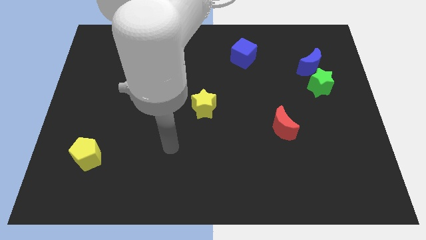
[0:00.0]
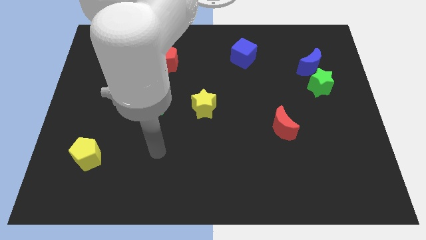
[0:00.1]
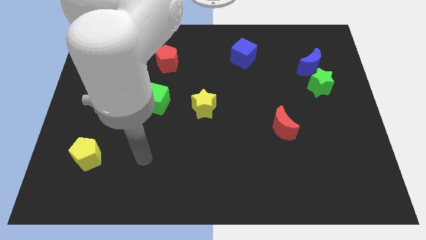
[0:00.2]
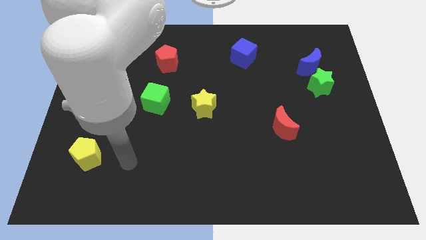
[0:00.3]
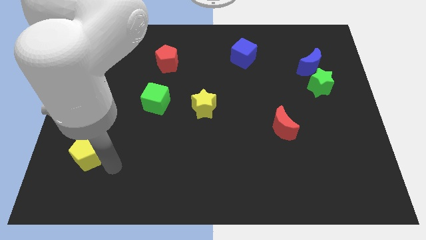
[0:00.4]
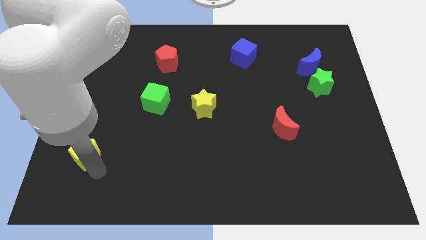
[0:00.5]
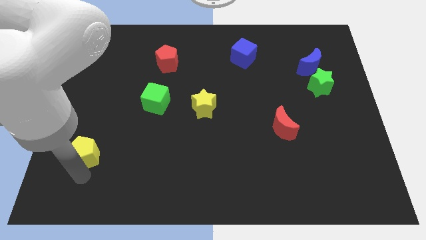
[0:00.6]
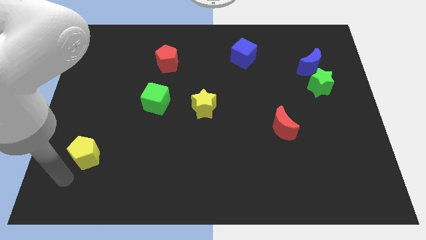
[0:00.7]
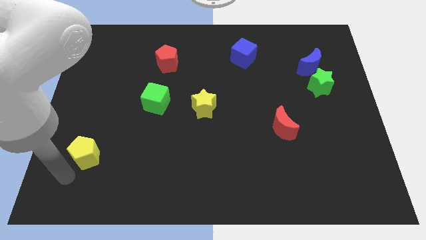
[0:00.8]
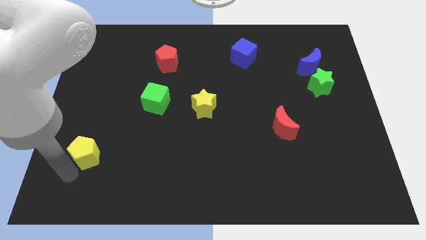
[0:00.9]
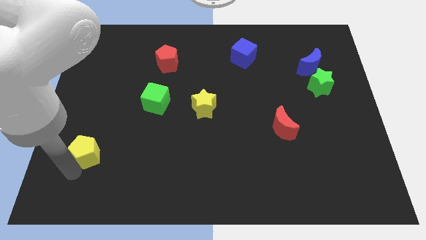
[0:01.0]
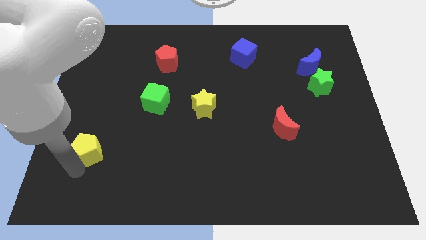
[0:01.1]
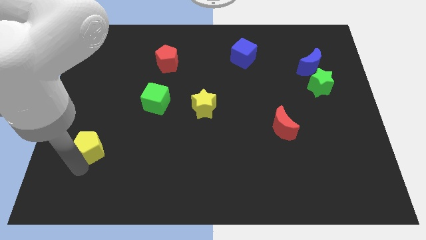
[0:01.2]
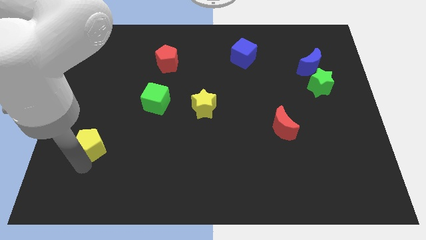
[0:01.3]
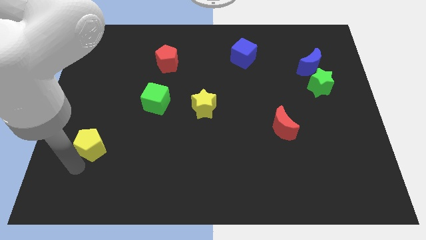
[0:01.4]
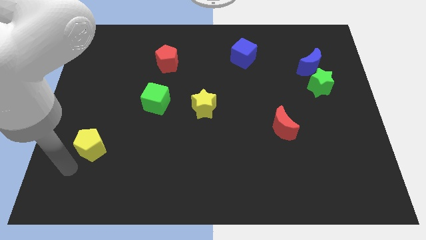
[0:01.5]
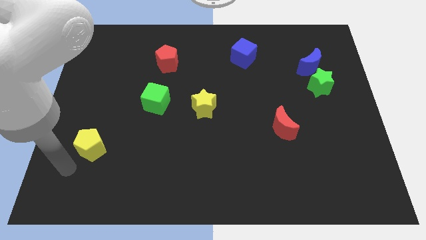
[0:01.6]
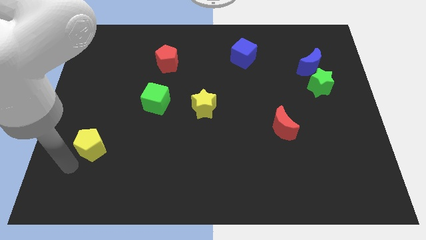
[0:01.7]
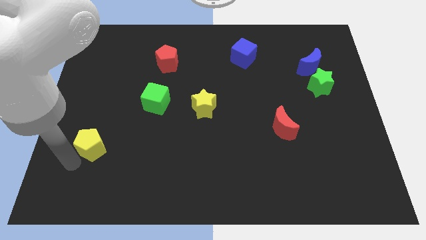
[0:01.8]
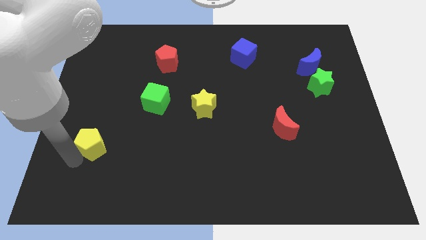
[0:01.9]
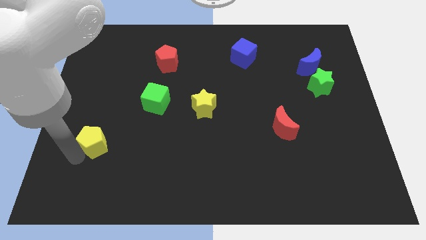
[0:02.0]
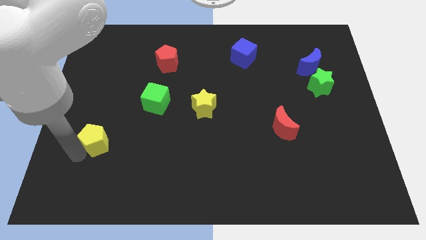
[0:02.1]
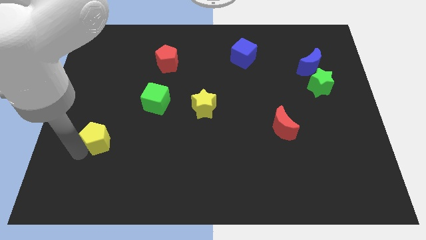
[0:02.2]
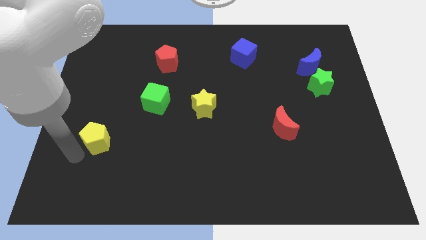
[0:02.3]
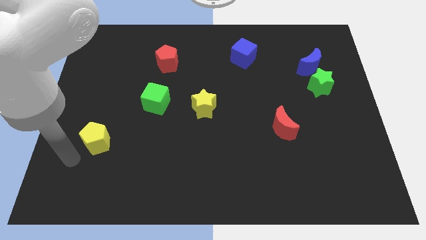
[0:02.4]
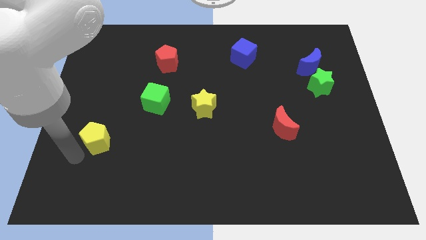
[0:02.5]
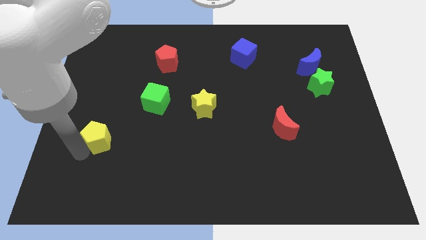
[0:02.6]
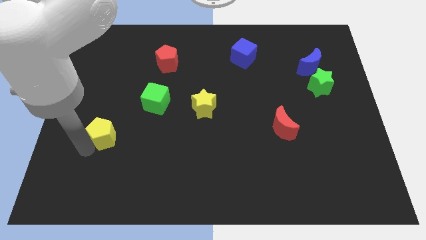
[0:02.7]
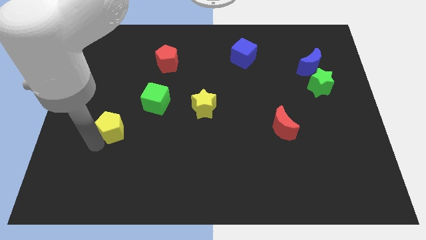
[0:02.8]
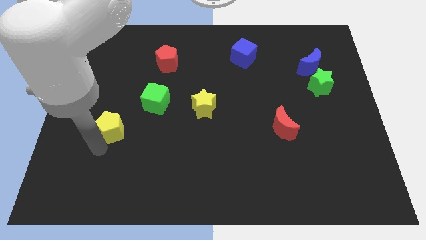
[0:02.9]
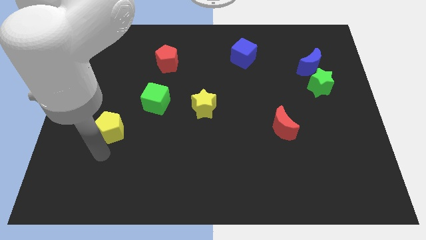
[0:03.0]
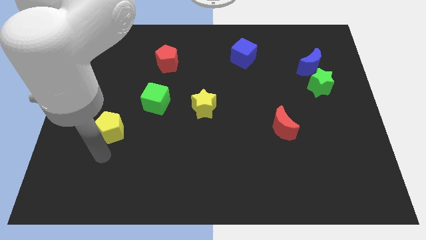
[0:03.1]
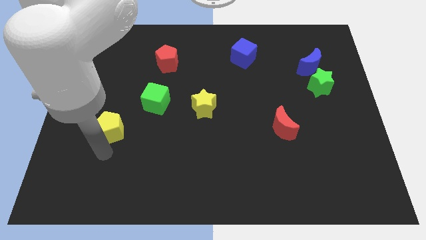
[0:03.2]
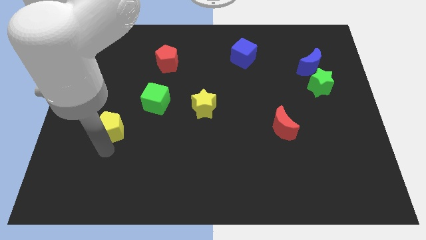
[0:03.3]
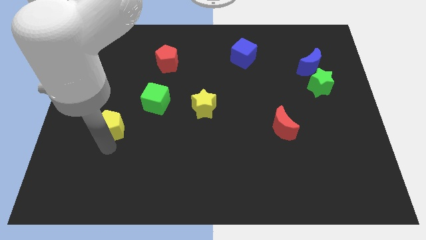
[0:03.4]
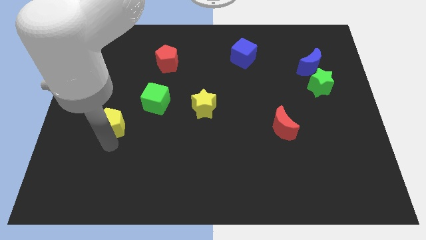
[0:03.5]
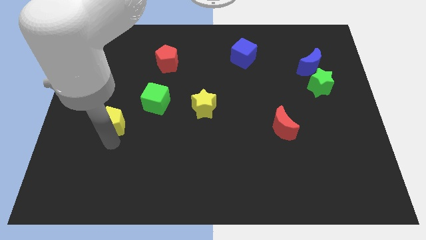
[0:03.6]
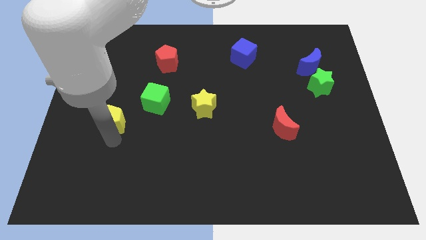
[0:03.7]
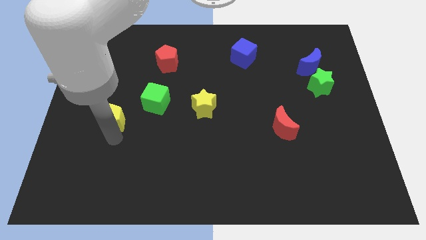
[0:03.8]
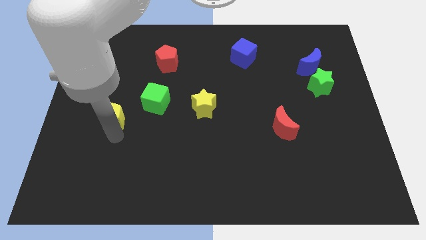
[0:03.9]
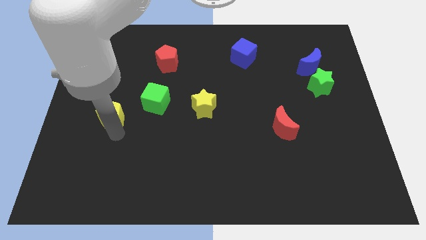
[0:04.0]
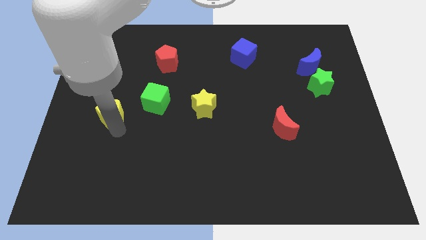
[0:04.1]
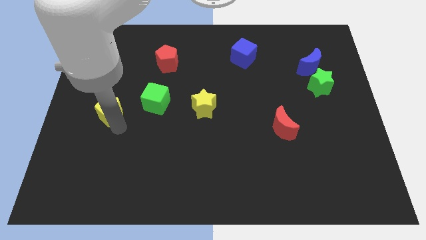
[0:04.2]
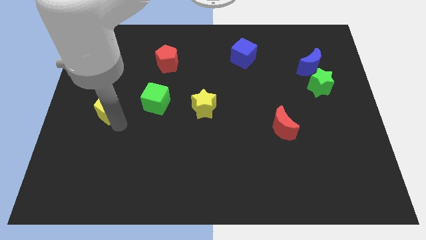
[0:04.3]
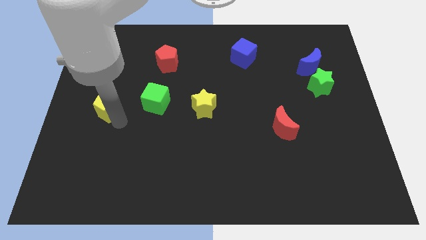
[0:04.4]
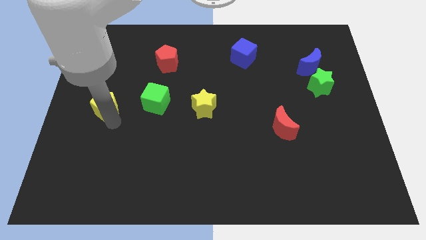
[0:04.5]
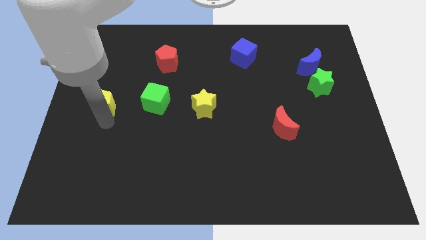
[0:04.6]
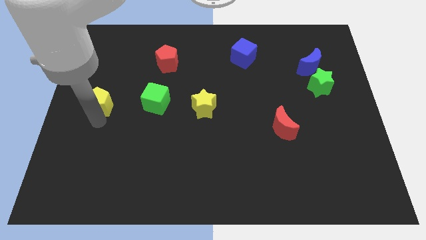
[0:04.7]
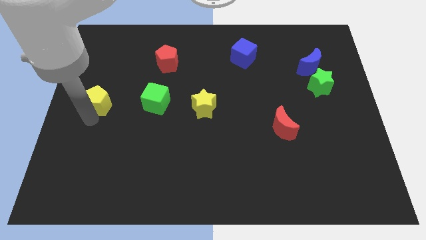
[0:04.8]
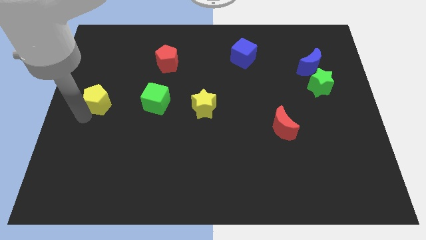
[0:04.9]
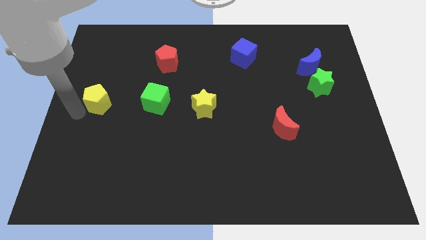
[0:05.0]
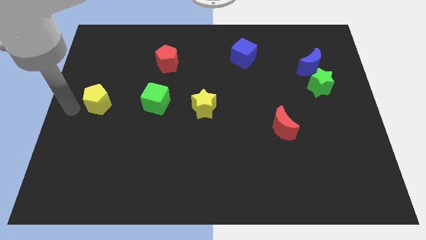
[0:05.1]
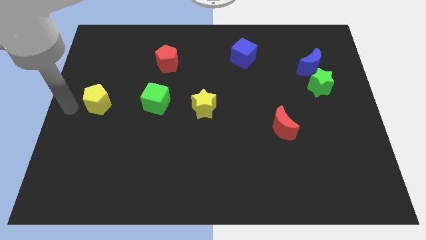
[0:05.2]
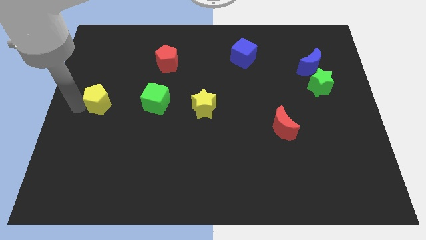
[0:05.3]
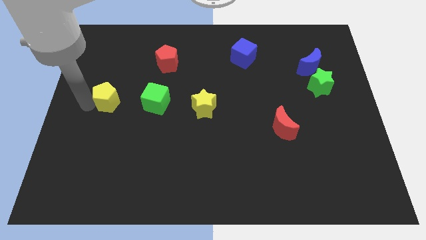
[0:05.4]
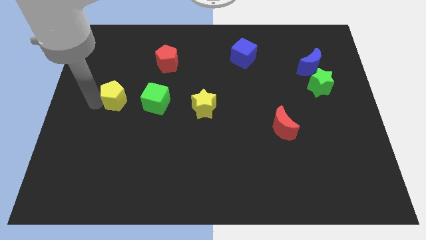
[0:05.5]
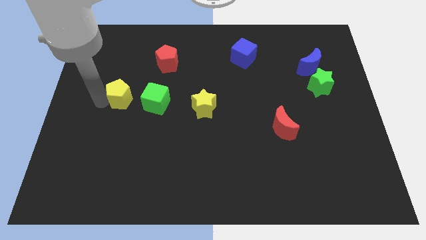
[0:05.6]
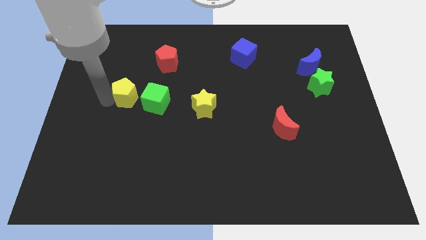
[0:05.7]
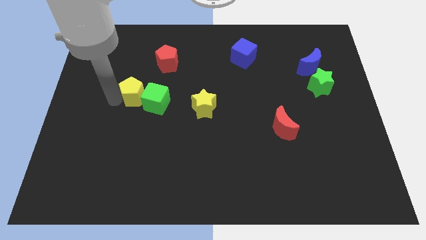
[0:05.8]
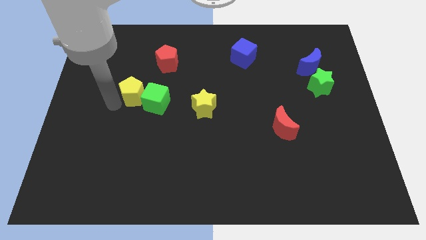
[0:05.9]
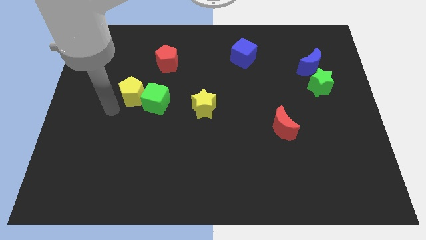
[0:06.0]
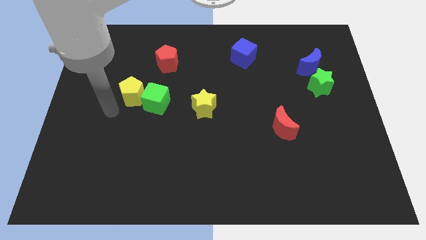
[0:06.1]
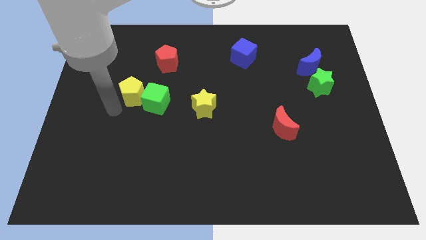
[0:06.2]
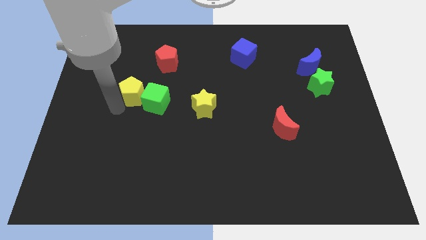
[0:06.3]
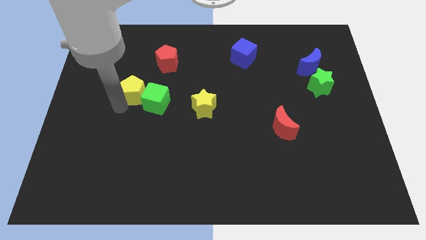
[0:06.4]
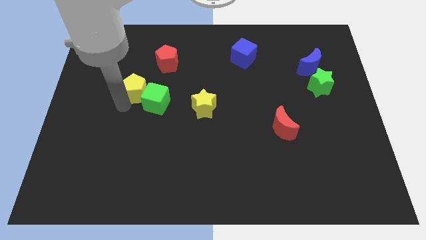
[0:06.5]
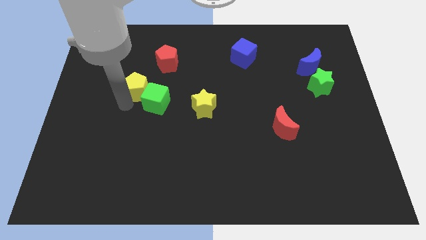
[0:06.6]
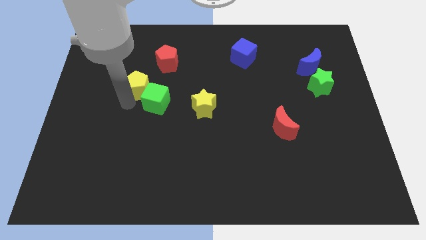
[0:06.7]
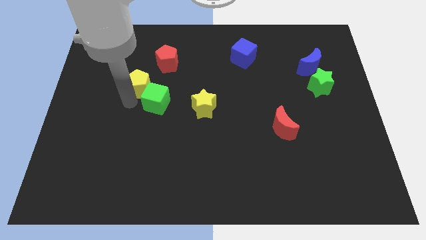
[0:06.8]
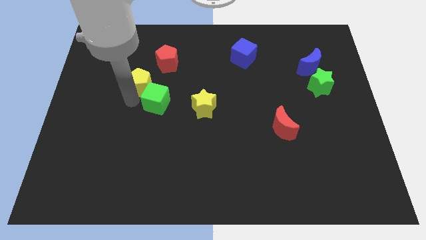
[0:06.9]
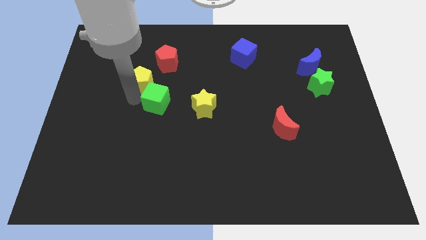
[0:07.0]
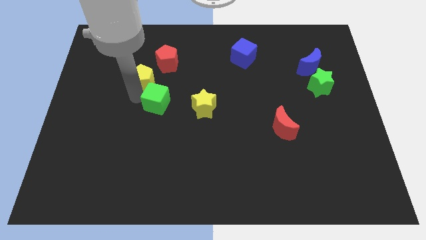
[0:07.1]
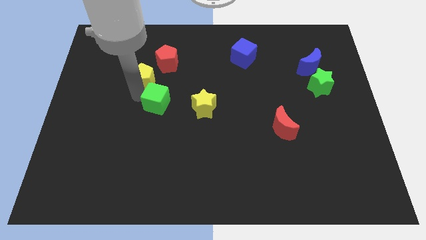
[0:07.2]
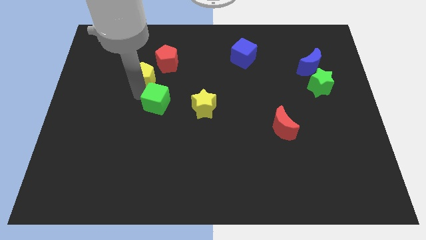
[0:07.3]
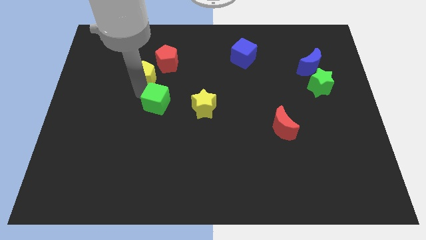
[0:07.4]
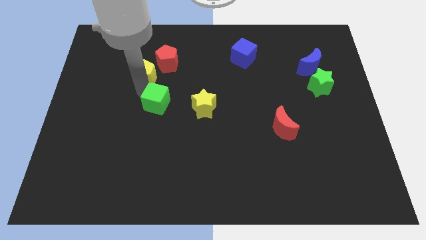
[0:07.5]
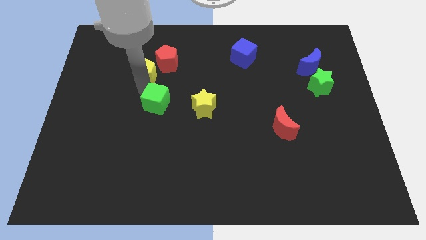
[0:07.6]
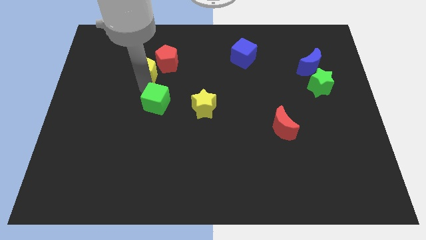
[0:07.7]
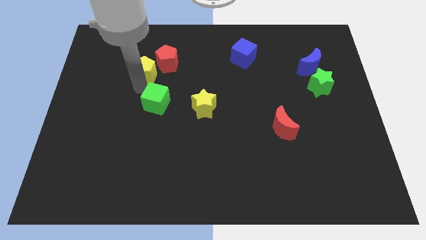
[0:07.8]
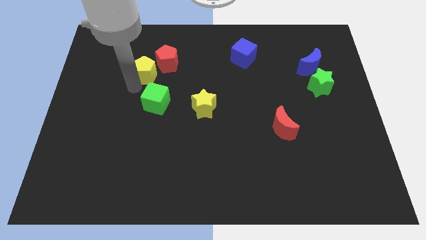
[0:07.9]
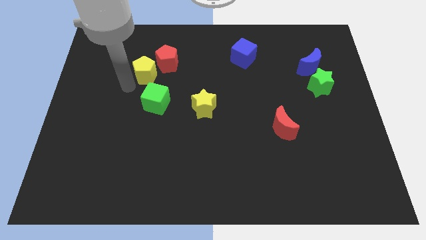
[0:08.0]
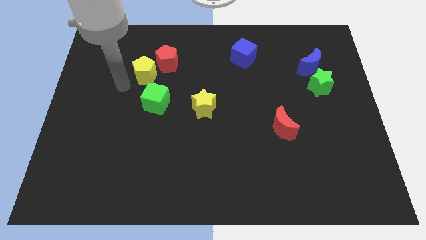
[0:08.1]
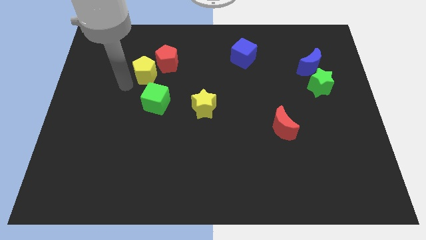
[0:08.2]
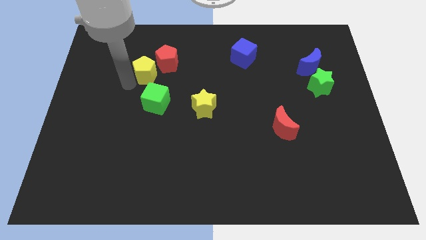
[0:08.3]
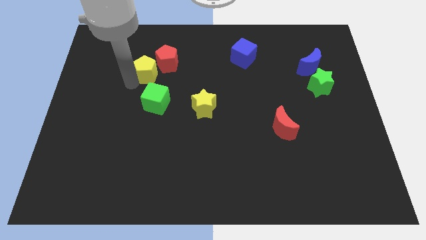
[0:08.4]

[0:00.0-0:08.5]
push the yellow pentagon close to the red pentagon
